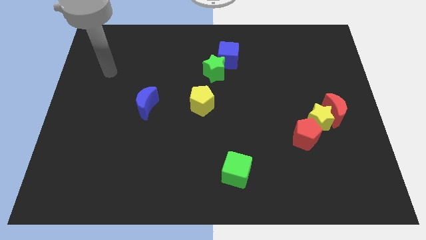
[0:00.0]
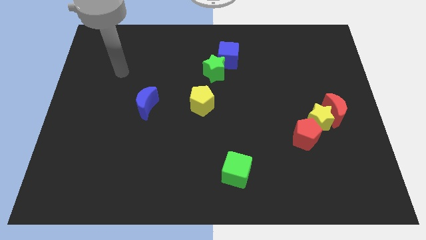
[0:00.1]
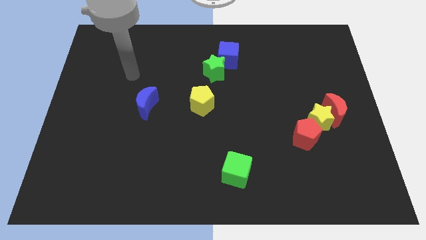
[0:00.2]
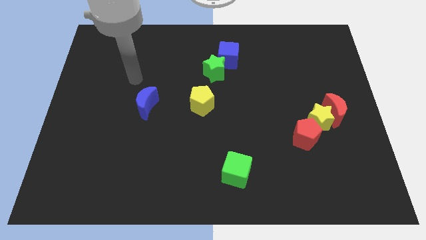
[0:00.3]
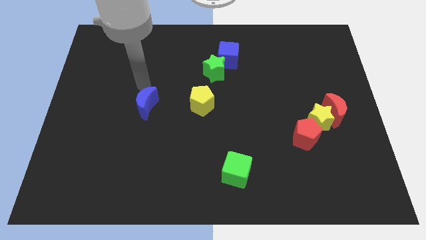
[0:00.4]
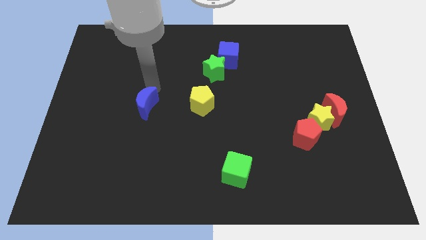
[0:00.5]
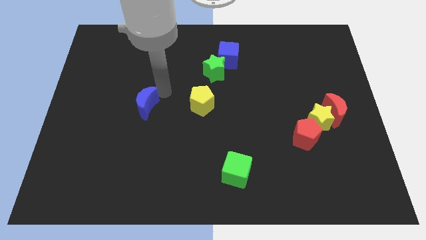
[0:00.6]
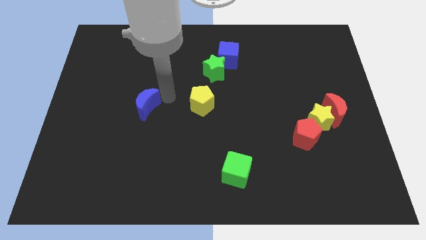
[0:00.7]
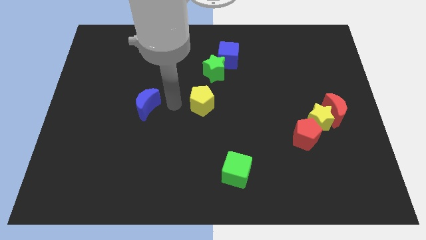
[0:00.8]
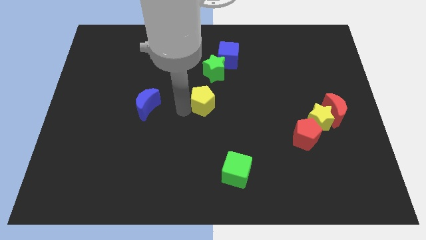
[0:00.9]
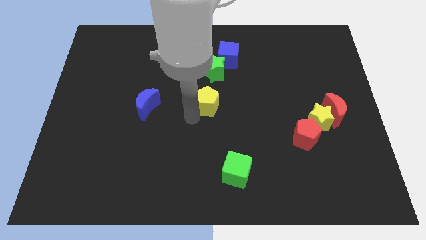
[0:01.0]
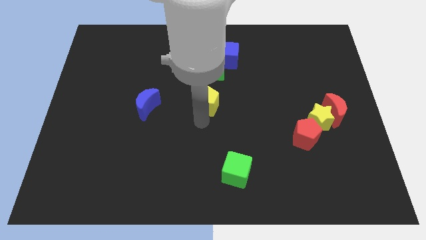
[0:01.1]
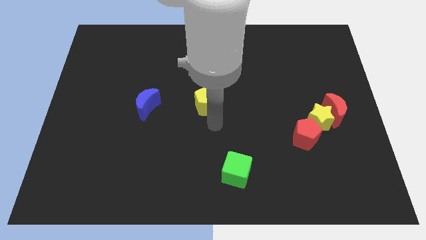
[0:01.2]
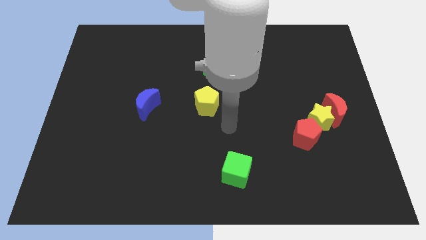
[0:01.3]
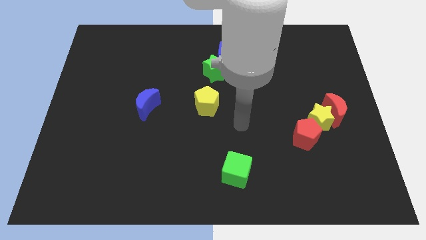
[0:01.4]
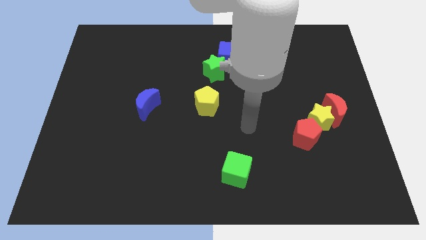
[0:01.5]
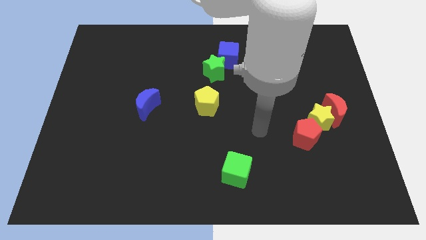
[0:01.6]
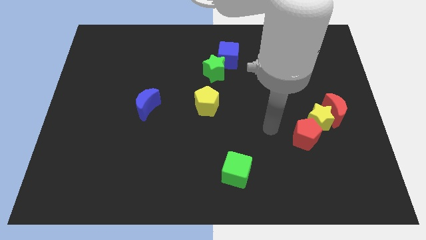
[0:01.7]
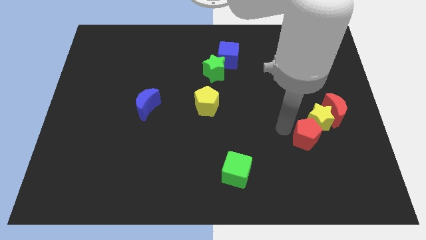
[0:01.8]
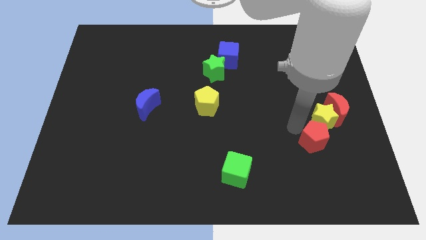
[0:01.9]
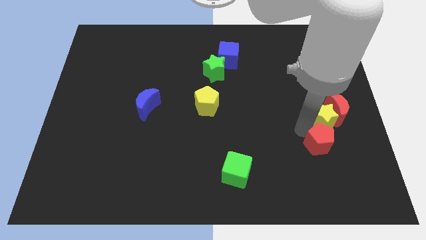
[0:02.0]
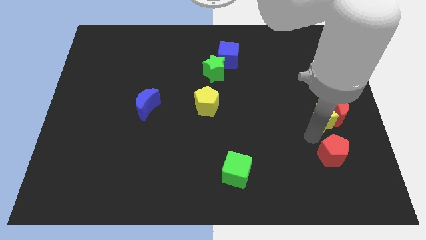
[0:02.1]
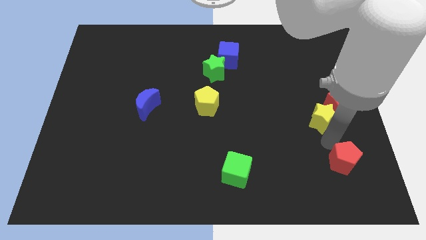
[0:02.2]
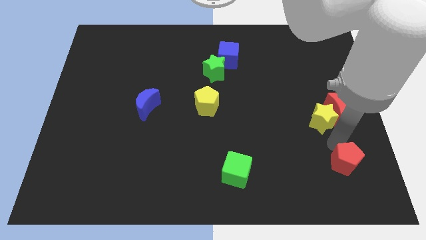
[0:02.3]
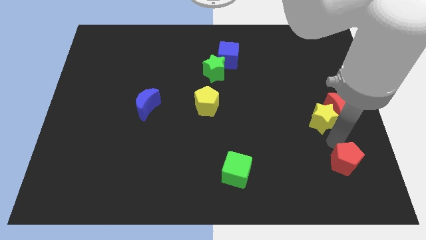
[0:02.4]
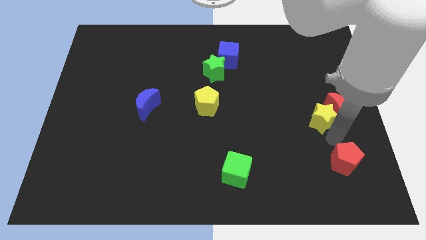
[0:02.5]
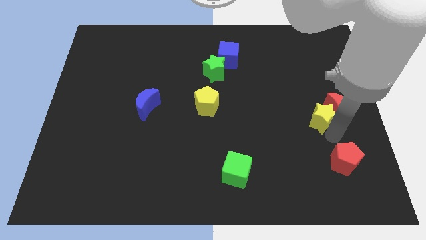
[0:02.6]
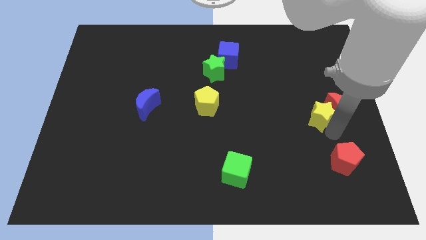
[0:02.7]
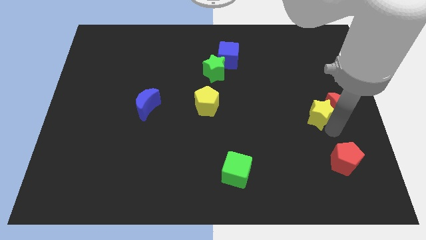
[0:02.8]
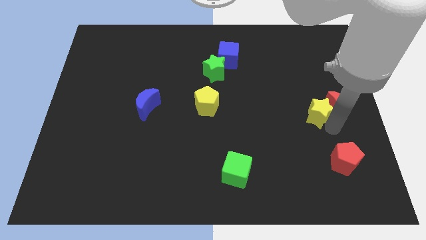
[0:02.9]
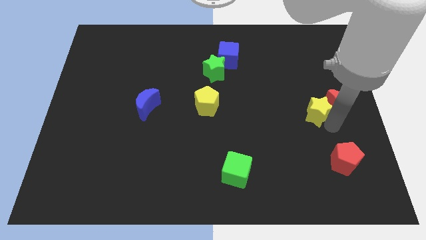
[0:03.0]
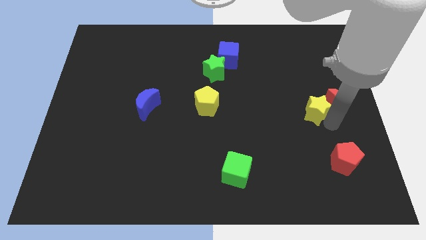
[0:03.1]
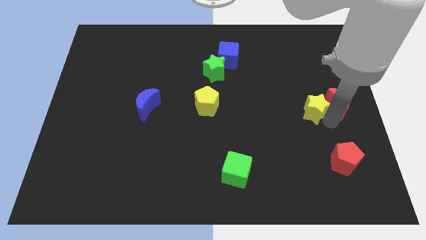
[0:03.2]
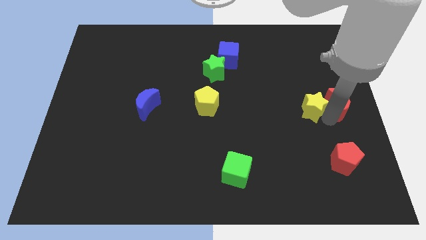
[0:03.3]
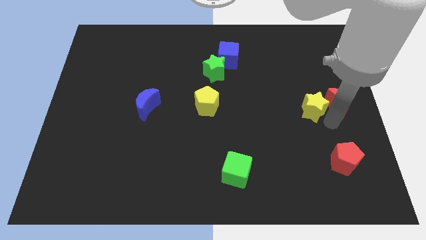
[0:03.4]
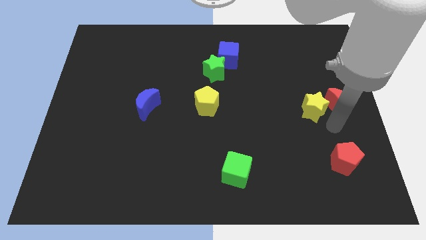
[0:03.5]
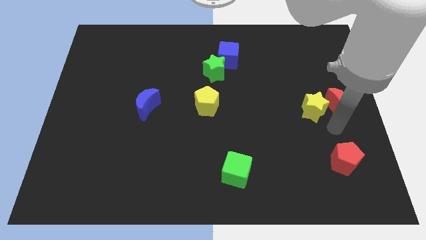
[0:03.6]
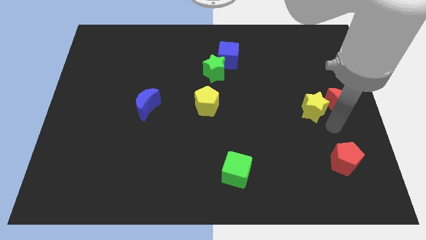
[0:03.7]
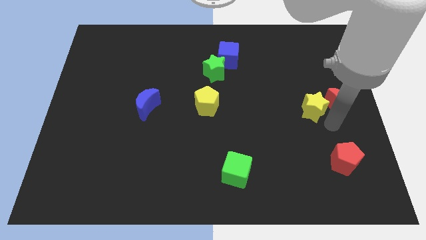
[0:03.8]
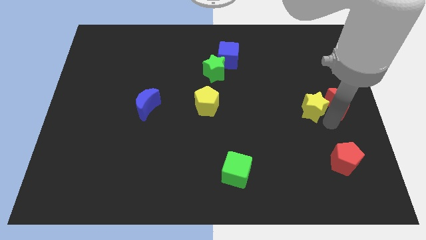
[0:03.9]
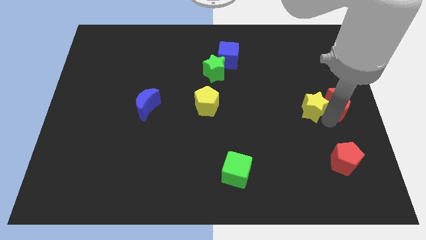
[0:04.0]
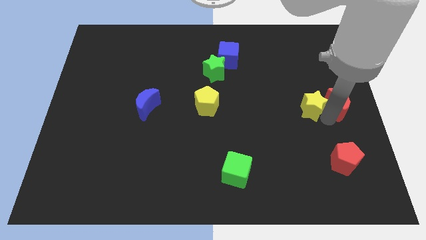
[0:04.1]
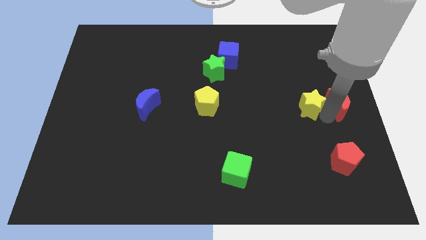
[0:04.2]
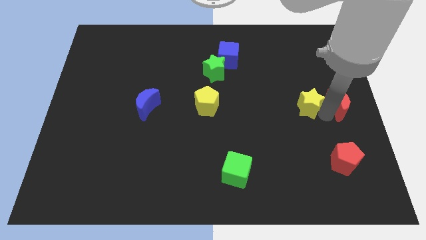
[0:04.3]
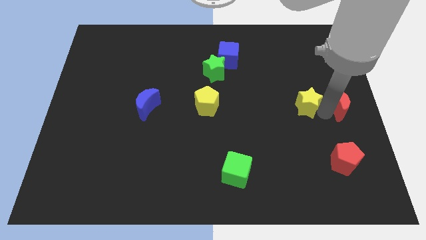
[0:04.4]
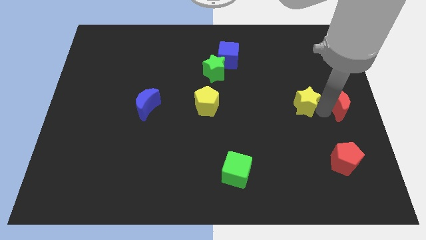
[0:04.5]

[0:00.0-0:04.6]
pull the yellow star apart from the red moon and red pentagon

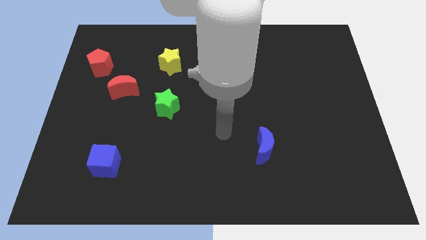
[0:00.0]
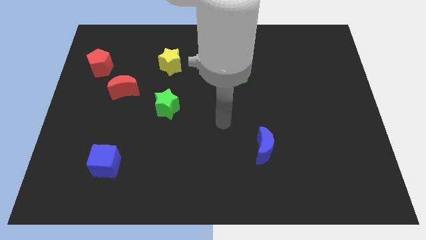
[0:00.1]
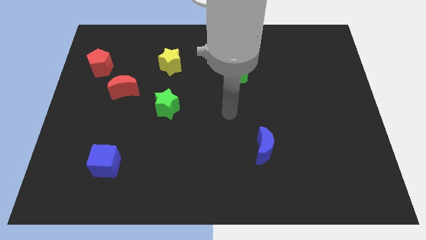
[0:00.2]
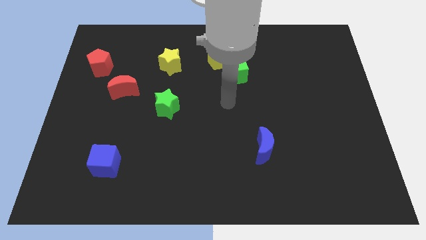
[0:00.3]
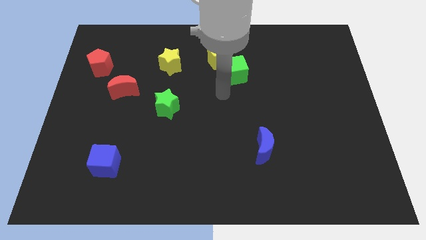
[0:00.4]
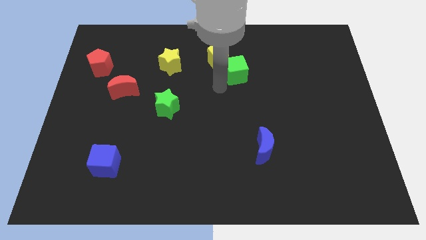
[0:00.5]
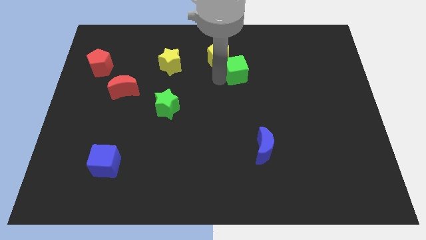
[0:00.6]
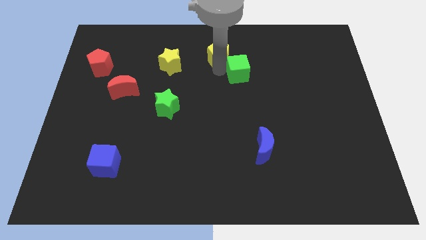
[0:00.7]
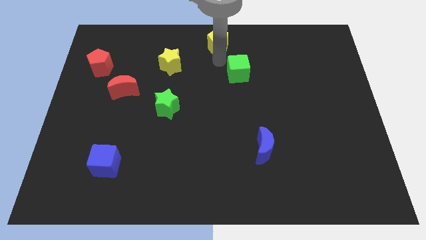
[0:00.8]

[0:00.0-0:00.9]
pull the green cube apart from the yellow pentagon

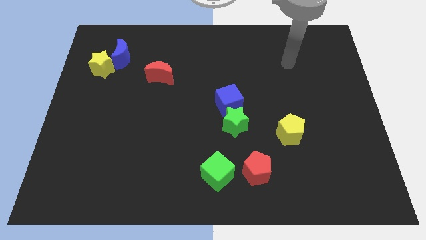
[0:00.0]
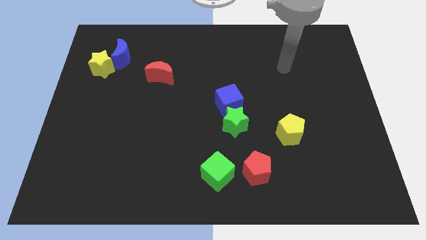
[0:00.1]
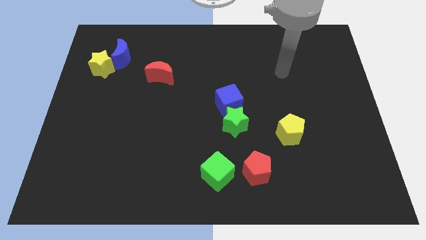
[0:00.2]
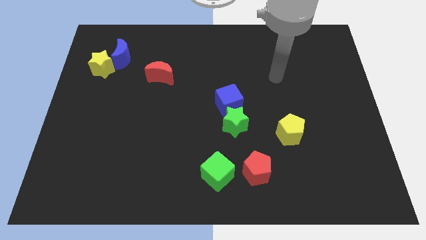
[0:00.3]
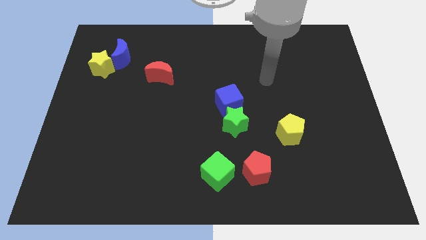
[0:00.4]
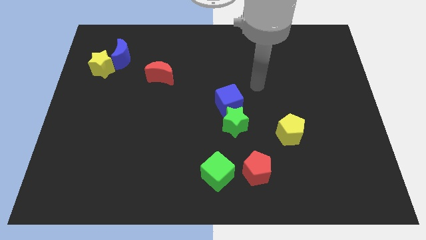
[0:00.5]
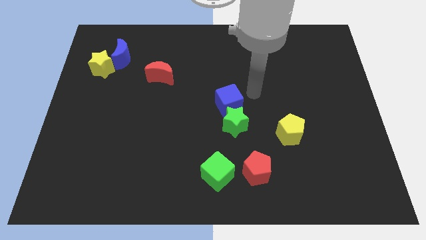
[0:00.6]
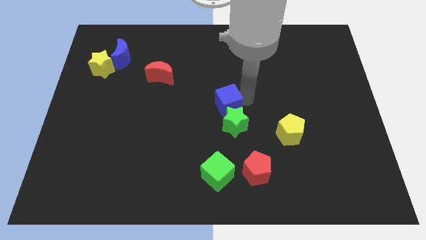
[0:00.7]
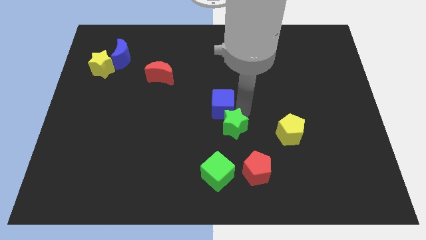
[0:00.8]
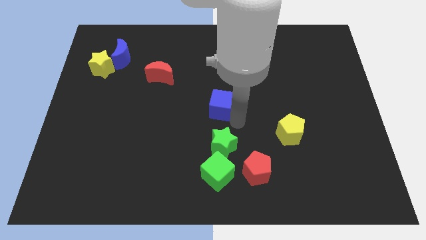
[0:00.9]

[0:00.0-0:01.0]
move the blue cube away from the green star

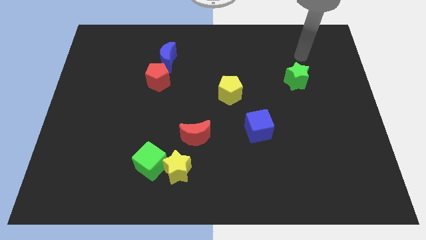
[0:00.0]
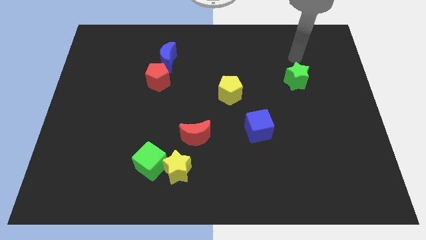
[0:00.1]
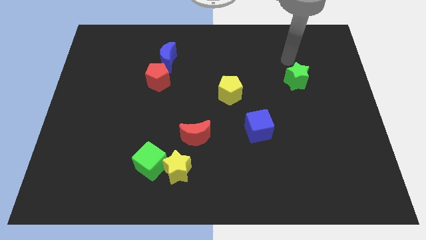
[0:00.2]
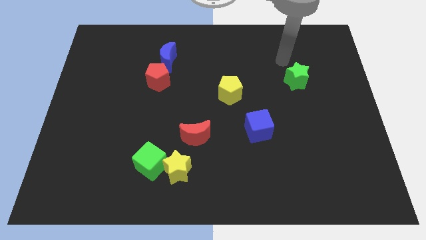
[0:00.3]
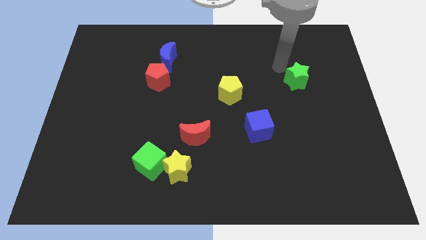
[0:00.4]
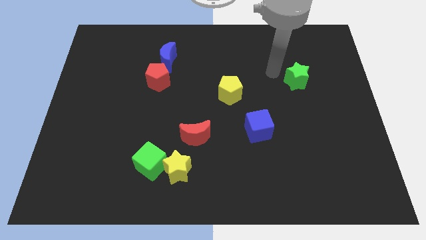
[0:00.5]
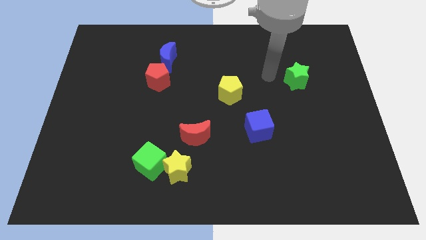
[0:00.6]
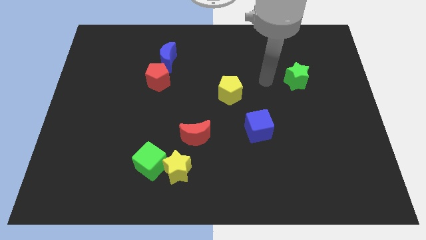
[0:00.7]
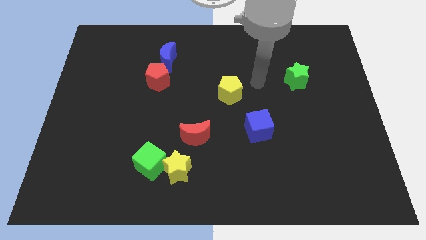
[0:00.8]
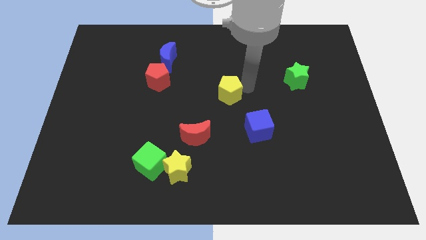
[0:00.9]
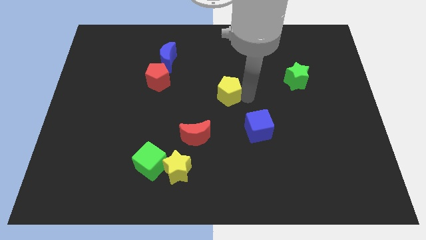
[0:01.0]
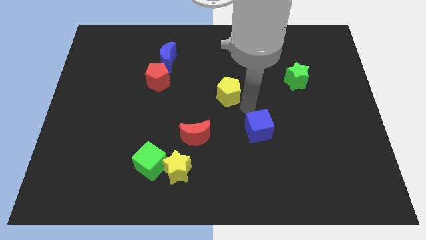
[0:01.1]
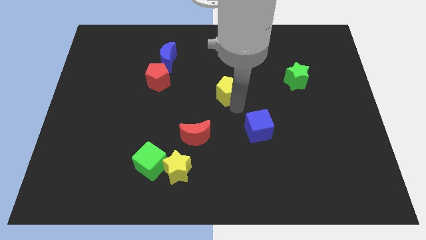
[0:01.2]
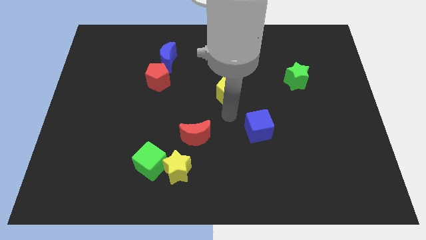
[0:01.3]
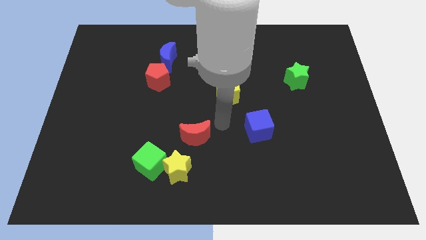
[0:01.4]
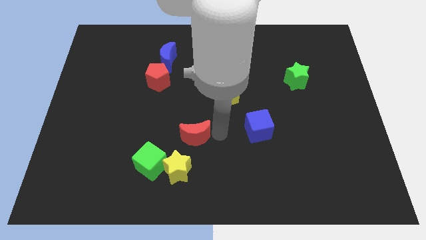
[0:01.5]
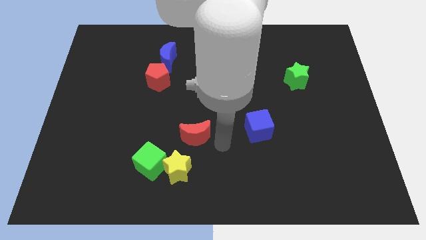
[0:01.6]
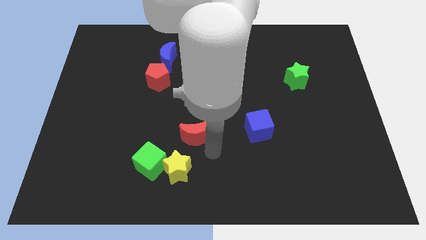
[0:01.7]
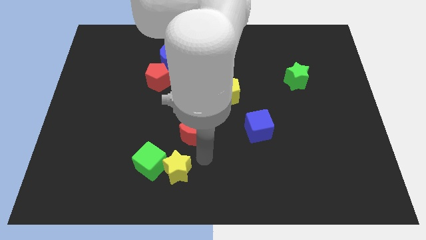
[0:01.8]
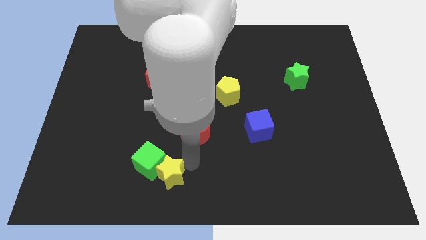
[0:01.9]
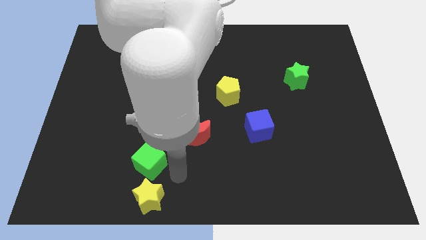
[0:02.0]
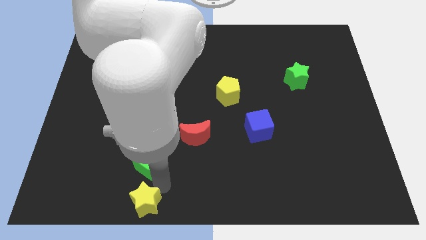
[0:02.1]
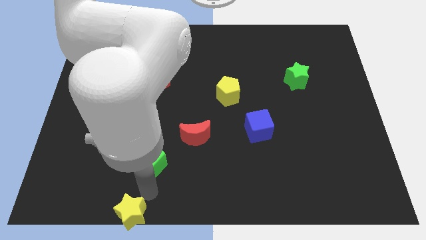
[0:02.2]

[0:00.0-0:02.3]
pull the green cube apart from the yellow star

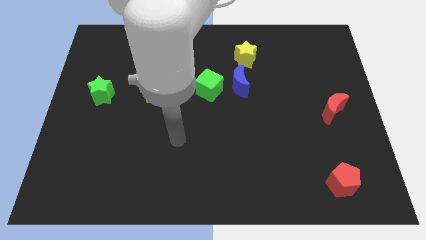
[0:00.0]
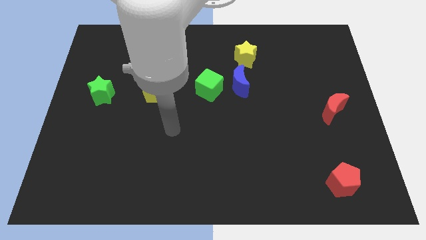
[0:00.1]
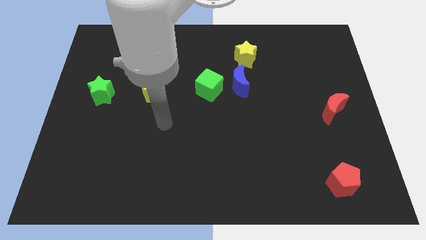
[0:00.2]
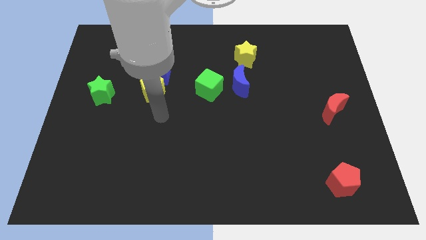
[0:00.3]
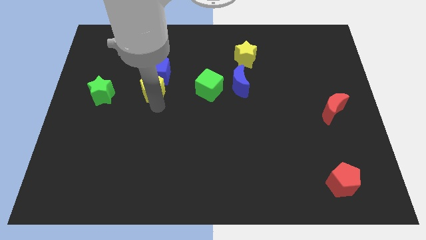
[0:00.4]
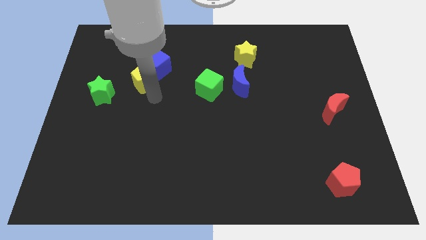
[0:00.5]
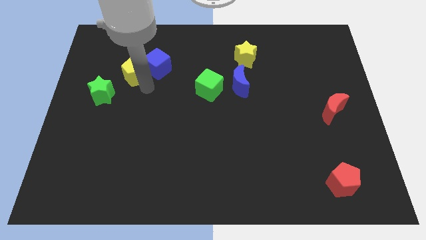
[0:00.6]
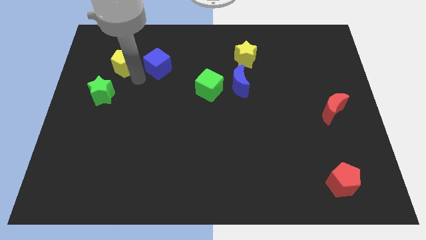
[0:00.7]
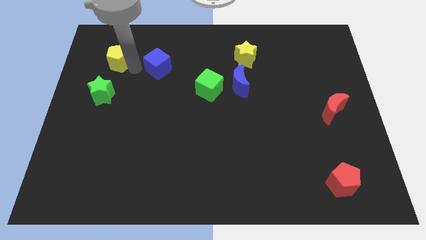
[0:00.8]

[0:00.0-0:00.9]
pull the blue cube apart from the yellow pentagon
